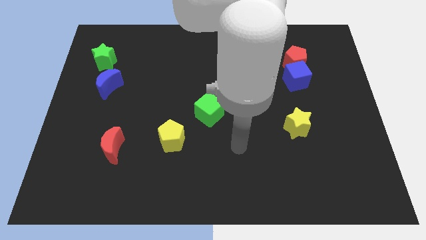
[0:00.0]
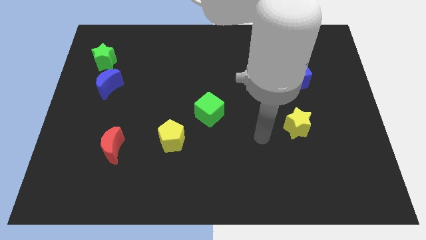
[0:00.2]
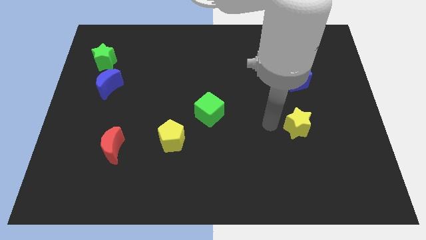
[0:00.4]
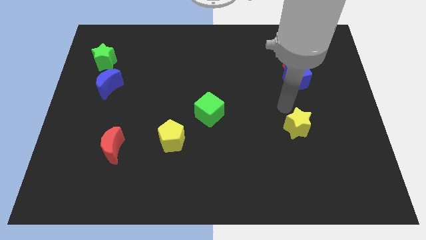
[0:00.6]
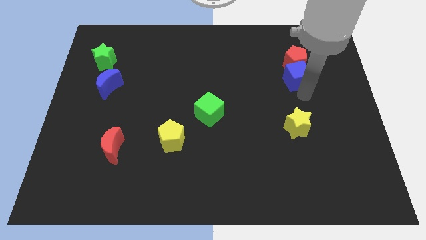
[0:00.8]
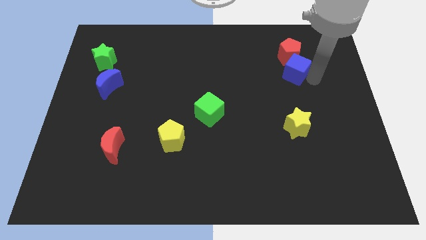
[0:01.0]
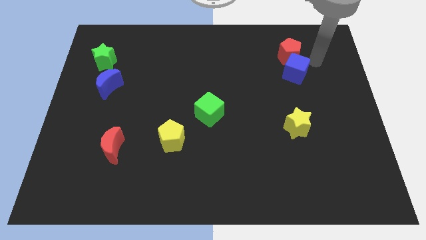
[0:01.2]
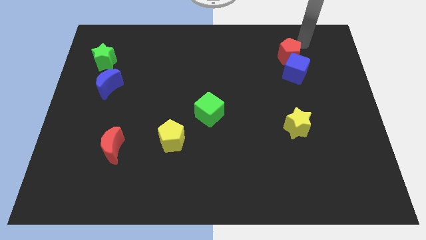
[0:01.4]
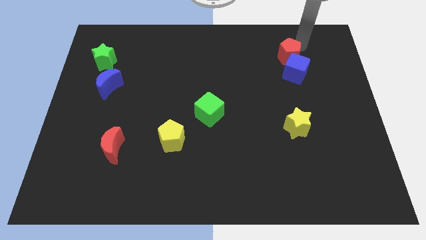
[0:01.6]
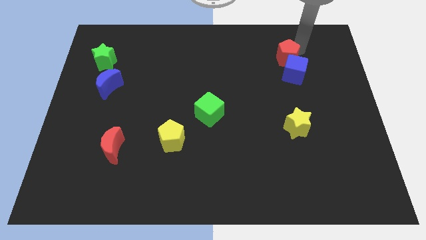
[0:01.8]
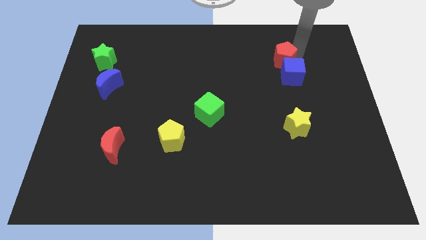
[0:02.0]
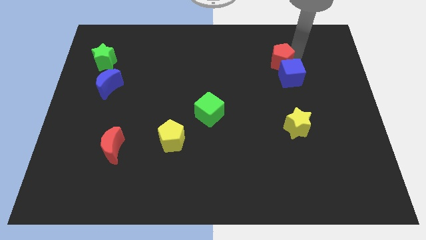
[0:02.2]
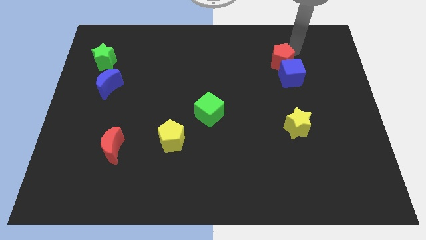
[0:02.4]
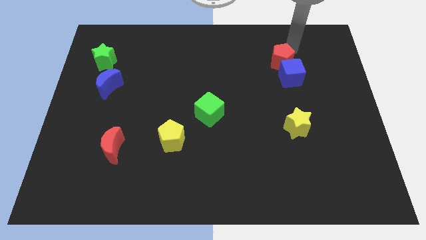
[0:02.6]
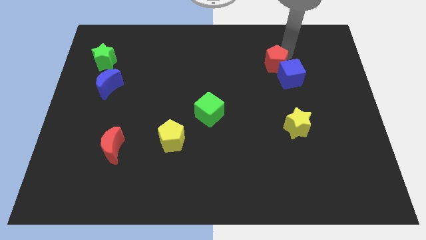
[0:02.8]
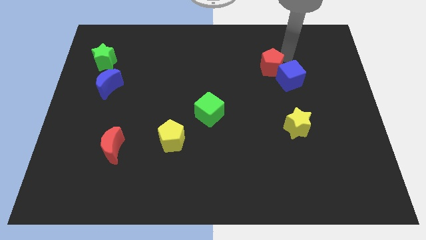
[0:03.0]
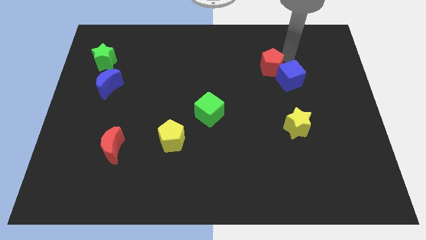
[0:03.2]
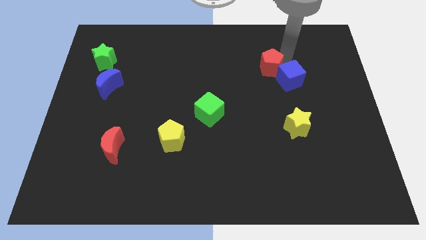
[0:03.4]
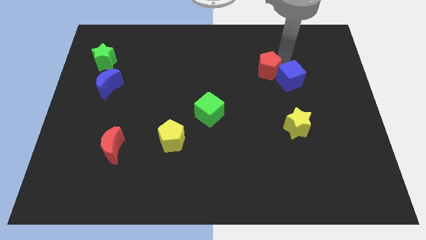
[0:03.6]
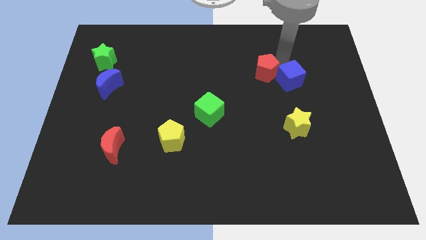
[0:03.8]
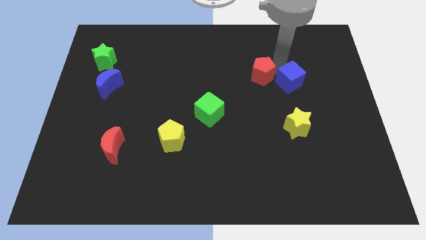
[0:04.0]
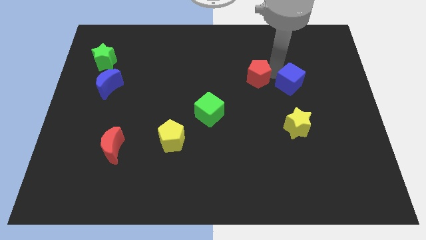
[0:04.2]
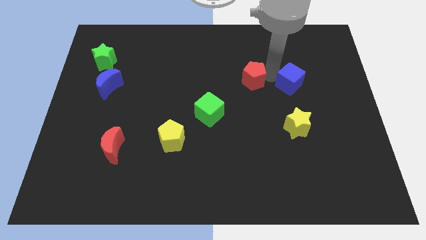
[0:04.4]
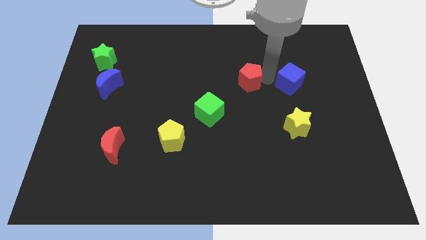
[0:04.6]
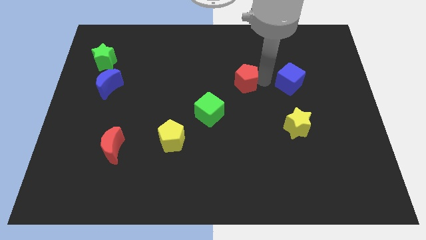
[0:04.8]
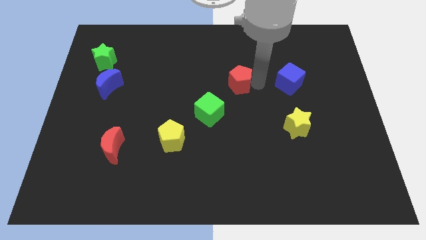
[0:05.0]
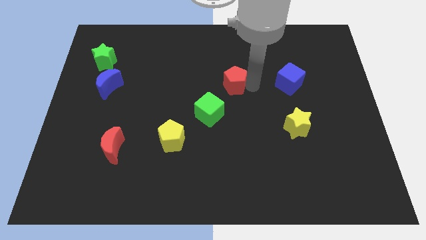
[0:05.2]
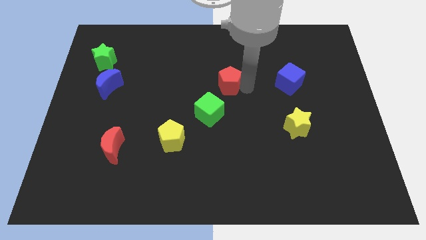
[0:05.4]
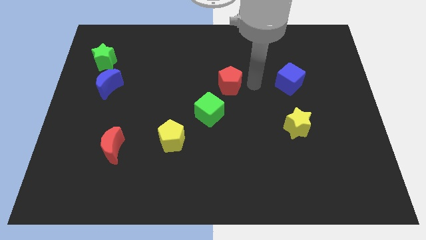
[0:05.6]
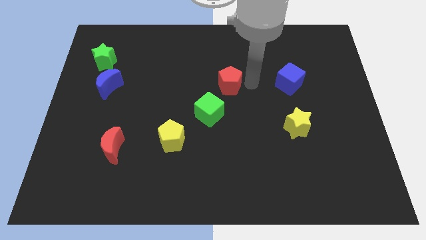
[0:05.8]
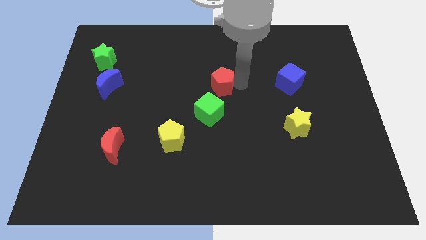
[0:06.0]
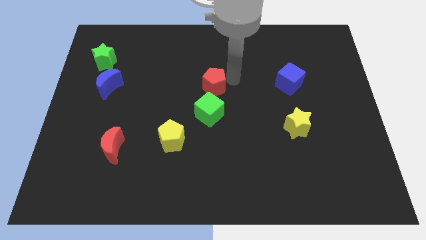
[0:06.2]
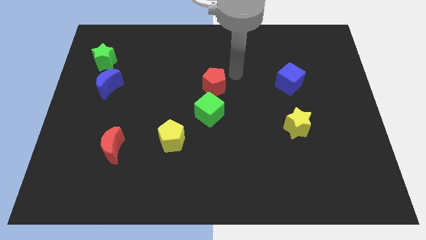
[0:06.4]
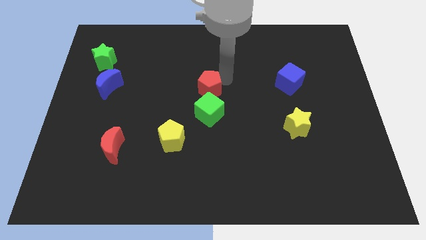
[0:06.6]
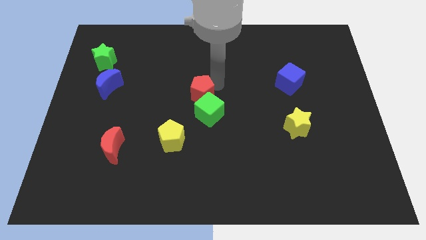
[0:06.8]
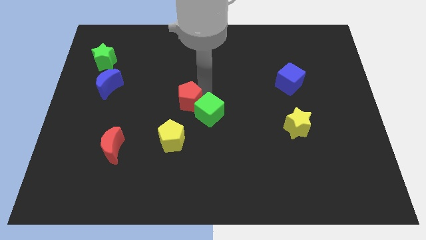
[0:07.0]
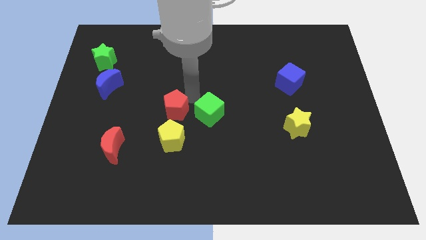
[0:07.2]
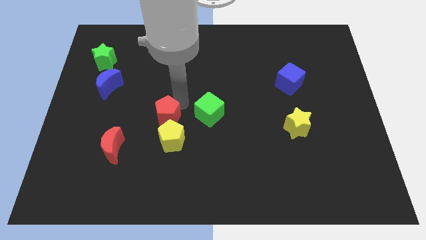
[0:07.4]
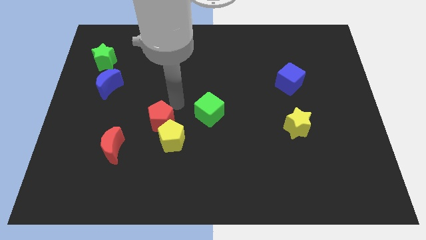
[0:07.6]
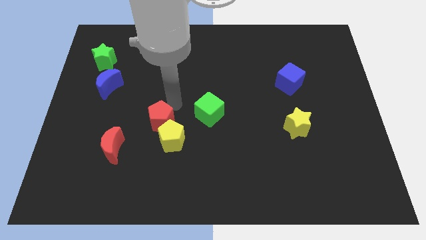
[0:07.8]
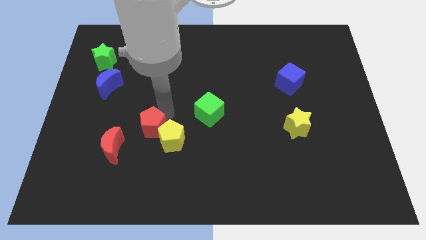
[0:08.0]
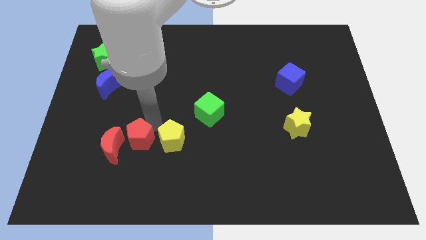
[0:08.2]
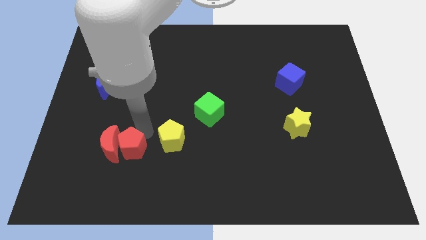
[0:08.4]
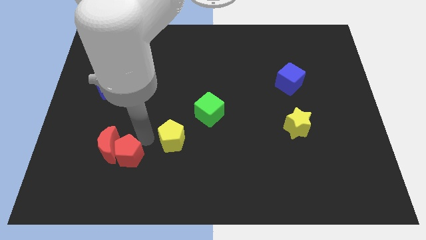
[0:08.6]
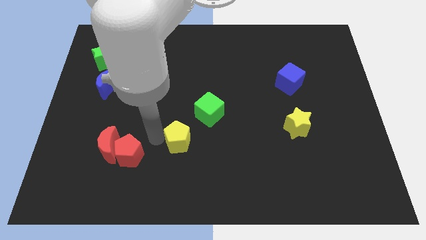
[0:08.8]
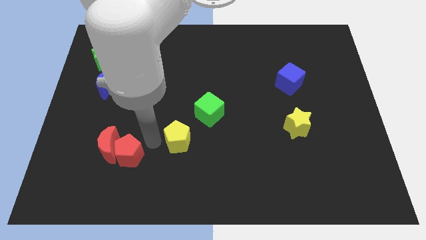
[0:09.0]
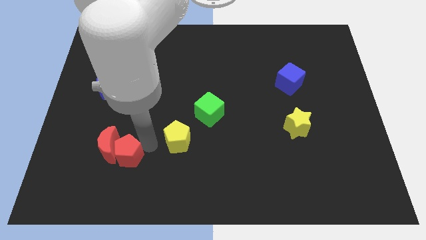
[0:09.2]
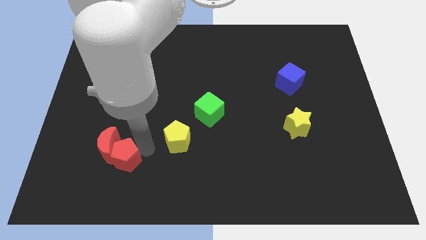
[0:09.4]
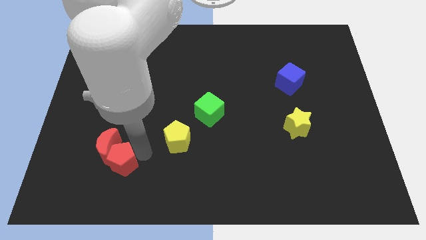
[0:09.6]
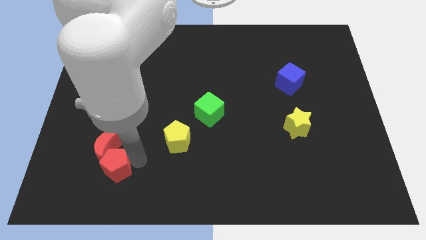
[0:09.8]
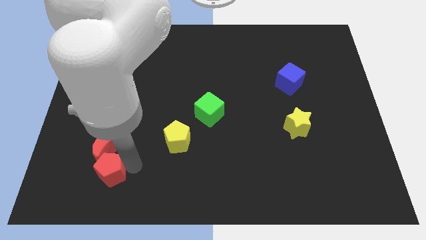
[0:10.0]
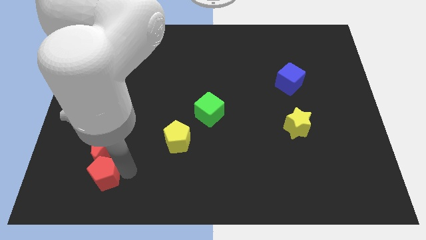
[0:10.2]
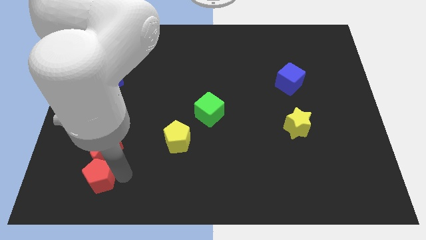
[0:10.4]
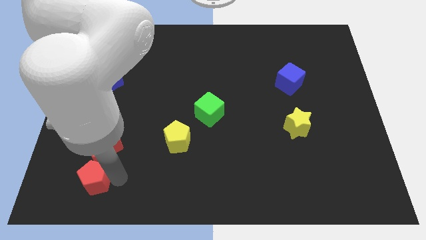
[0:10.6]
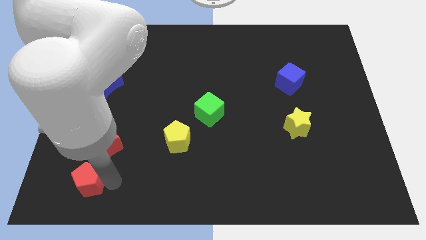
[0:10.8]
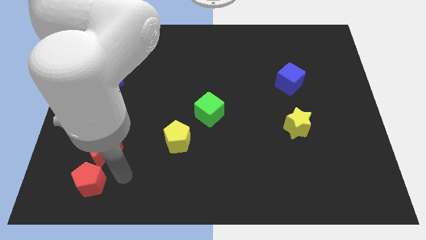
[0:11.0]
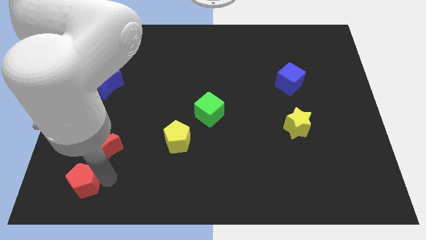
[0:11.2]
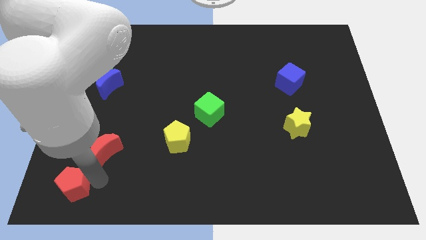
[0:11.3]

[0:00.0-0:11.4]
push the red pentagon to the bottom left
